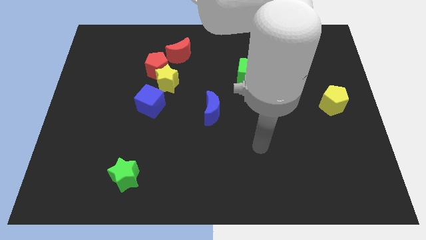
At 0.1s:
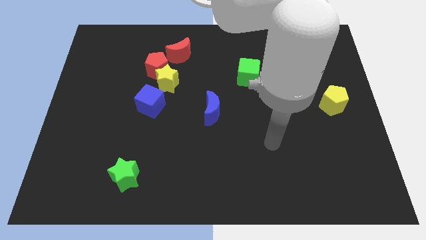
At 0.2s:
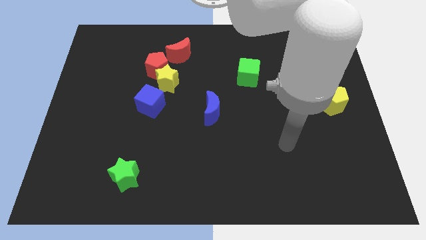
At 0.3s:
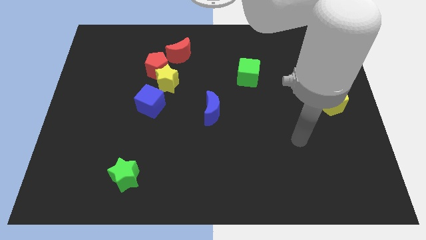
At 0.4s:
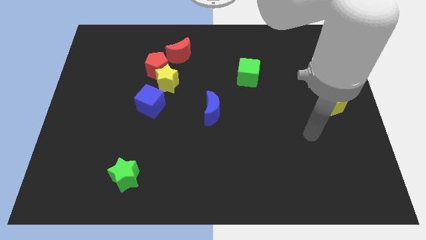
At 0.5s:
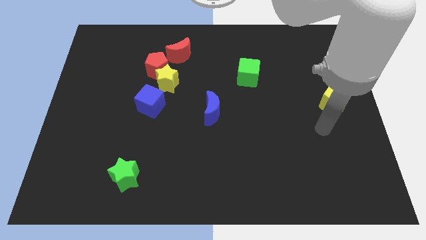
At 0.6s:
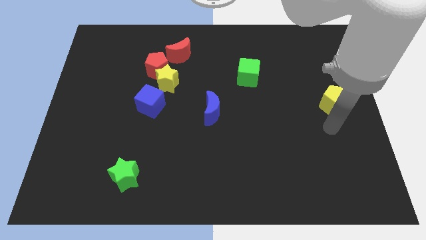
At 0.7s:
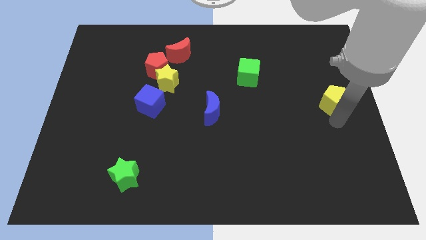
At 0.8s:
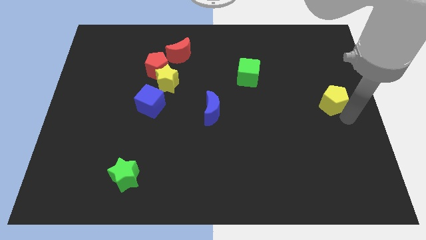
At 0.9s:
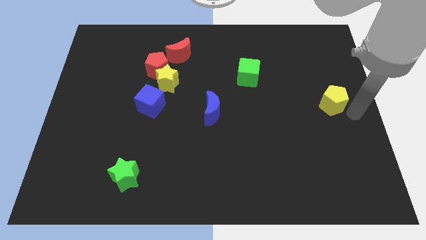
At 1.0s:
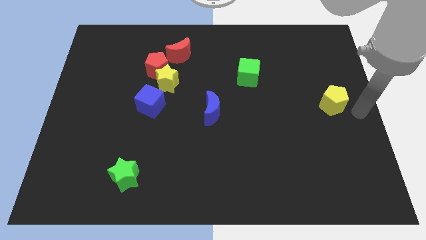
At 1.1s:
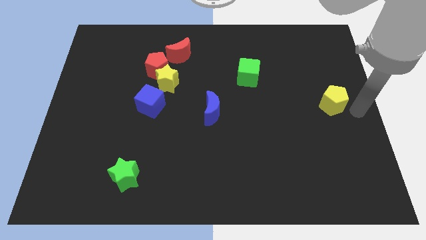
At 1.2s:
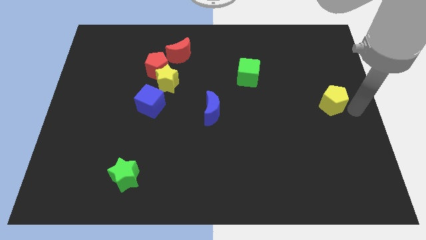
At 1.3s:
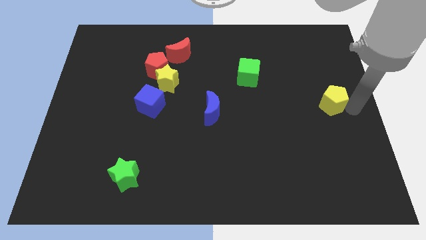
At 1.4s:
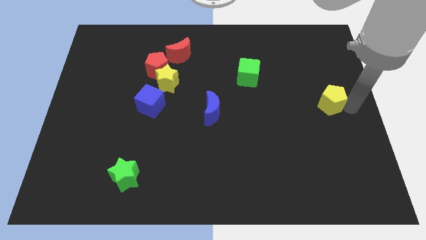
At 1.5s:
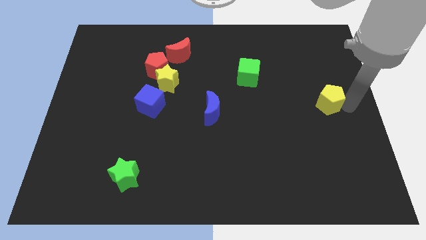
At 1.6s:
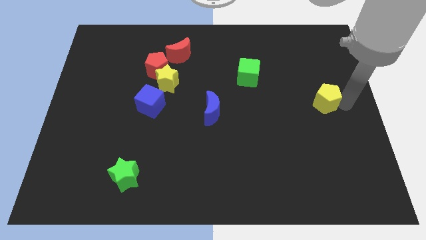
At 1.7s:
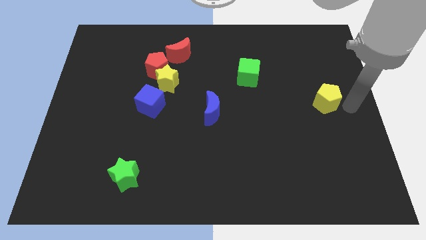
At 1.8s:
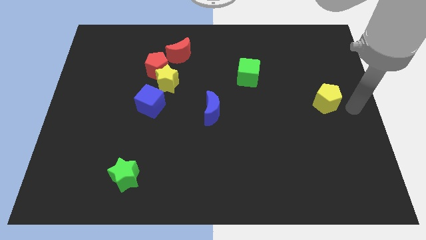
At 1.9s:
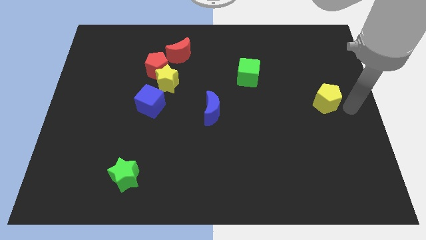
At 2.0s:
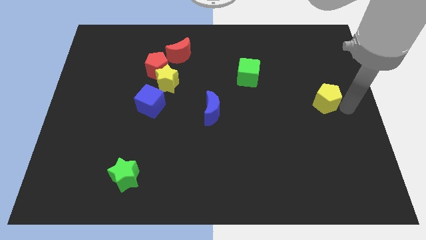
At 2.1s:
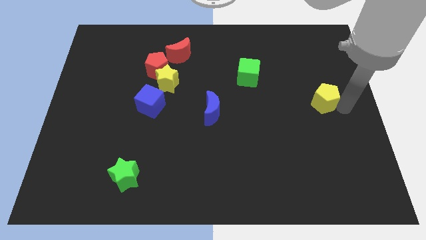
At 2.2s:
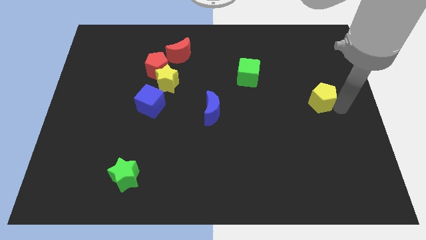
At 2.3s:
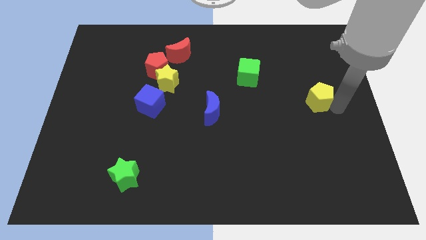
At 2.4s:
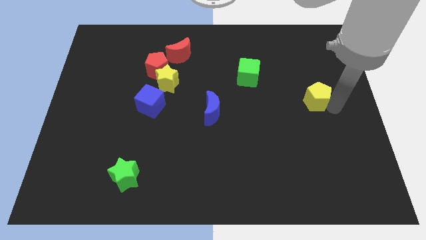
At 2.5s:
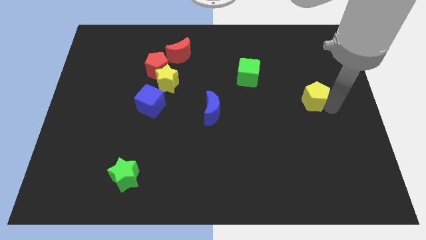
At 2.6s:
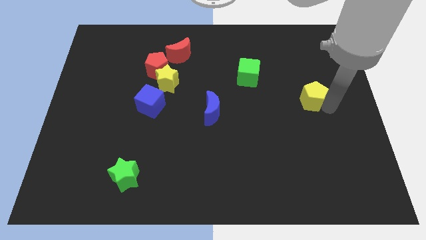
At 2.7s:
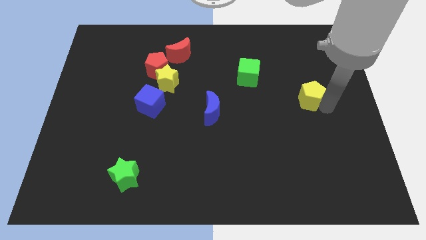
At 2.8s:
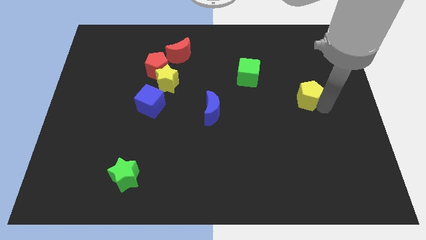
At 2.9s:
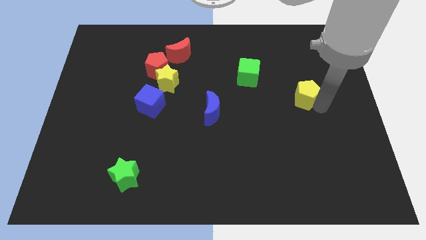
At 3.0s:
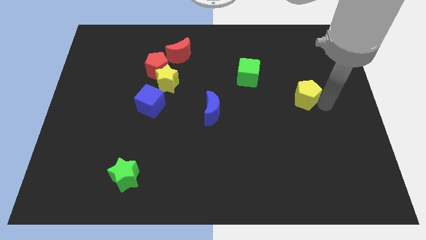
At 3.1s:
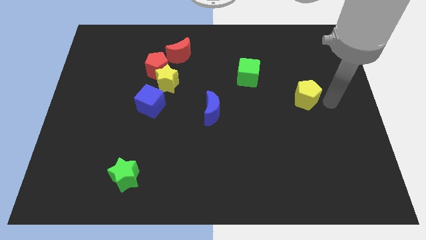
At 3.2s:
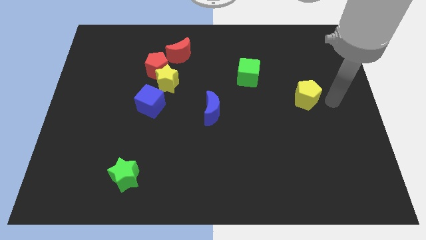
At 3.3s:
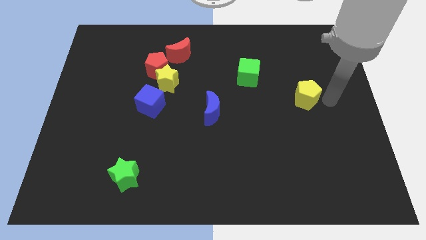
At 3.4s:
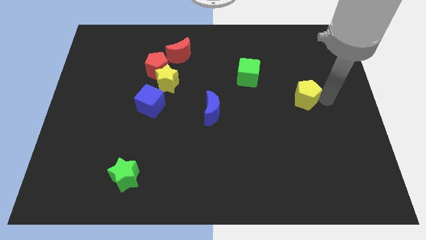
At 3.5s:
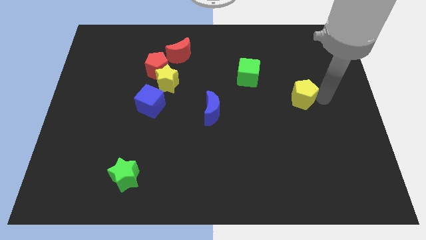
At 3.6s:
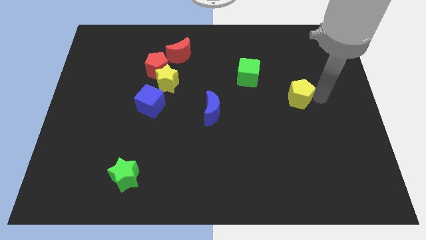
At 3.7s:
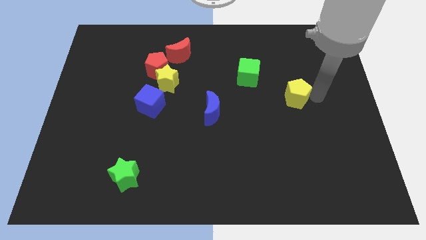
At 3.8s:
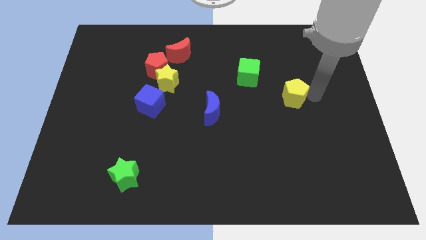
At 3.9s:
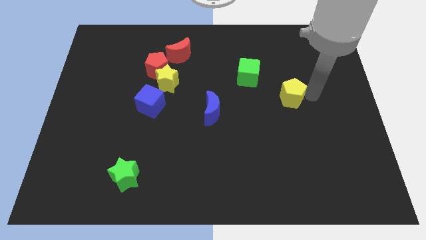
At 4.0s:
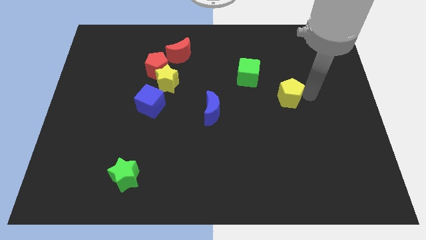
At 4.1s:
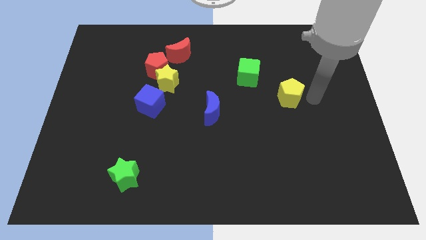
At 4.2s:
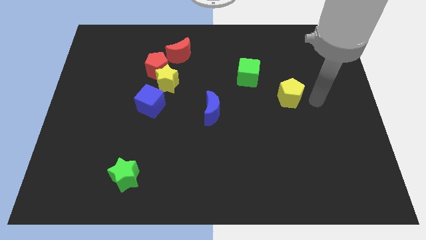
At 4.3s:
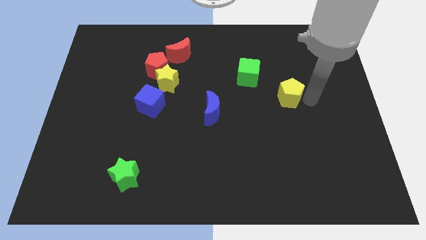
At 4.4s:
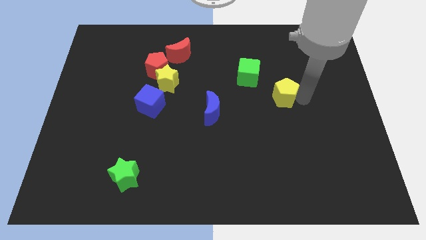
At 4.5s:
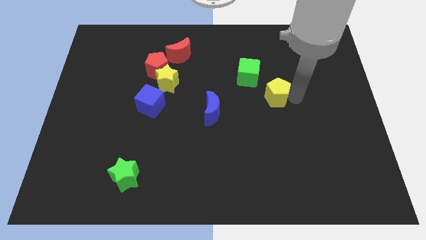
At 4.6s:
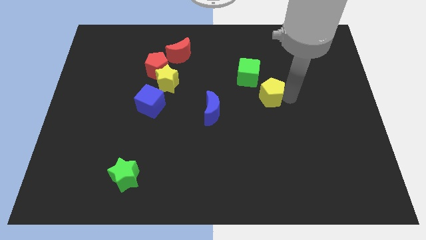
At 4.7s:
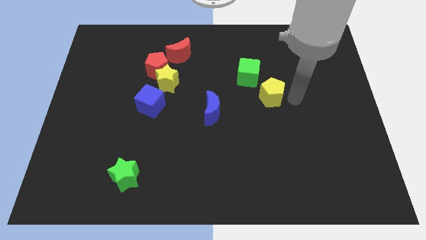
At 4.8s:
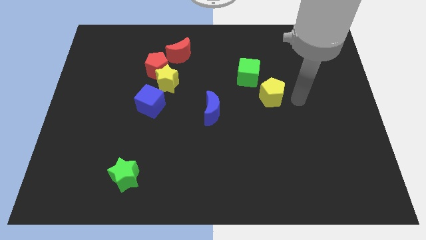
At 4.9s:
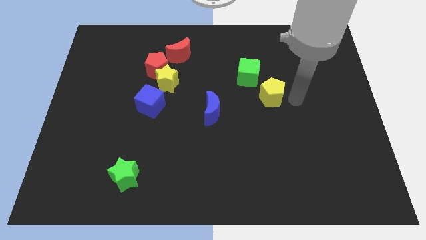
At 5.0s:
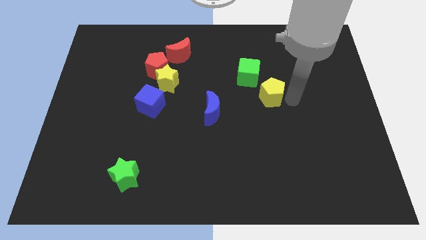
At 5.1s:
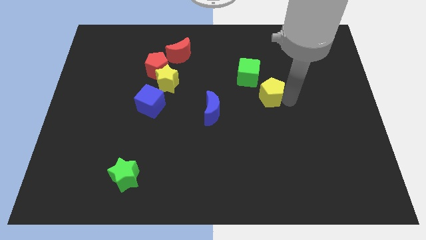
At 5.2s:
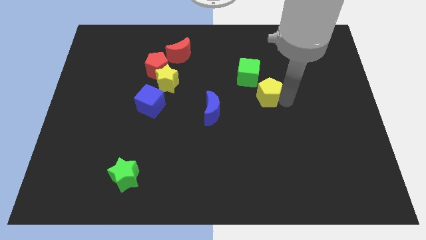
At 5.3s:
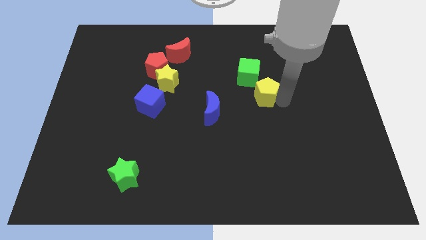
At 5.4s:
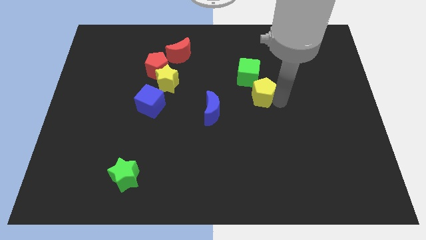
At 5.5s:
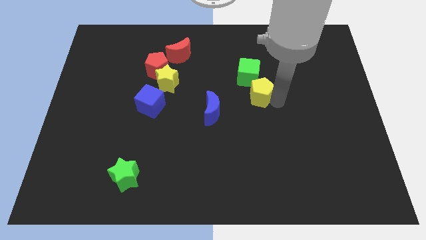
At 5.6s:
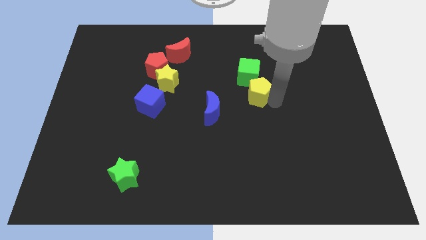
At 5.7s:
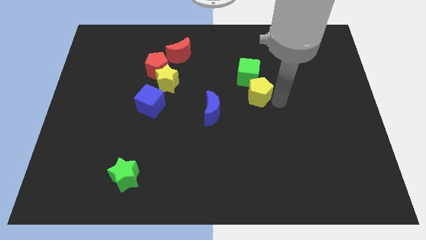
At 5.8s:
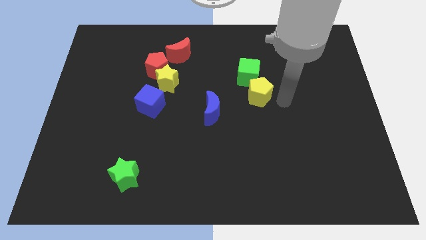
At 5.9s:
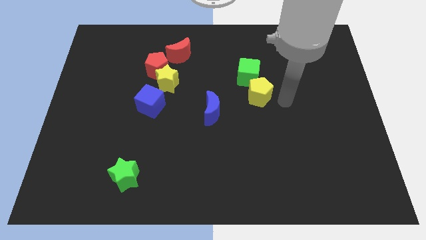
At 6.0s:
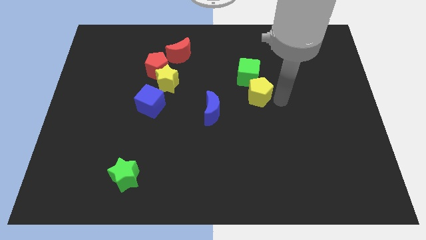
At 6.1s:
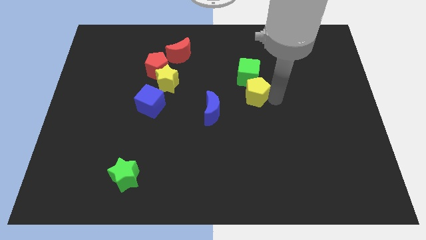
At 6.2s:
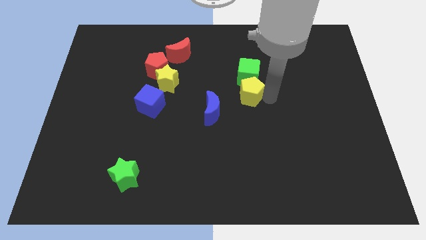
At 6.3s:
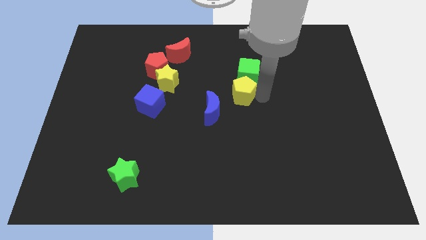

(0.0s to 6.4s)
slide the yellow pentagon to the left

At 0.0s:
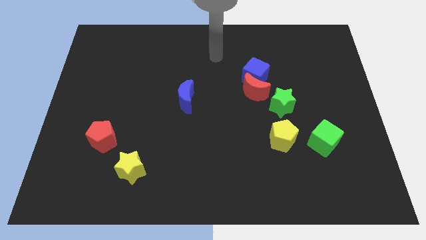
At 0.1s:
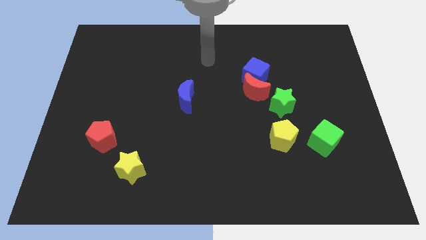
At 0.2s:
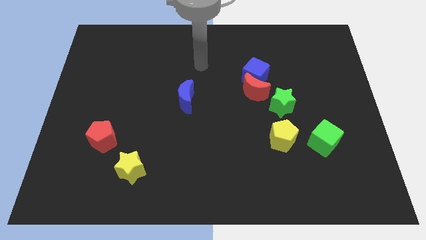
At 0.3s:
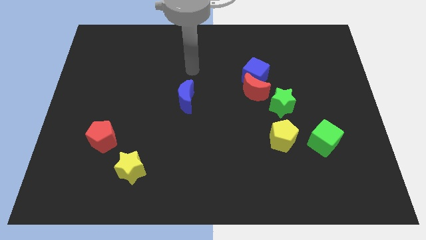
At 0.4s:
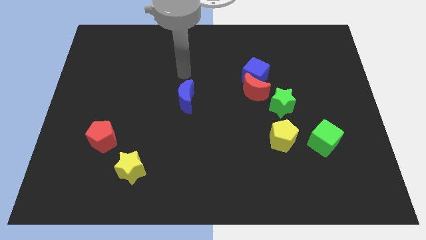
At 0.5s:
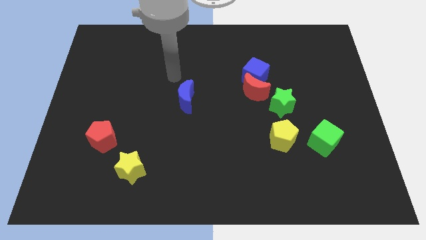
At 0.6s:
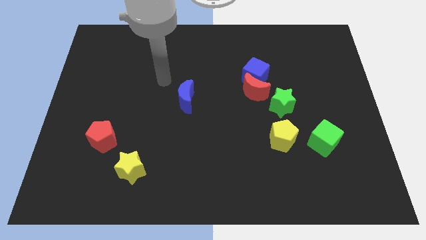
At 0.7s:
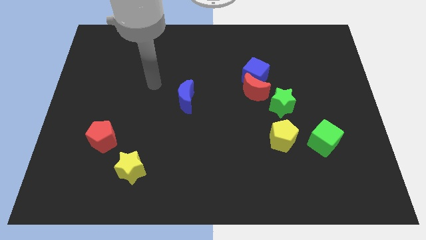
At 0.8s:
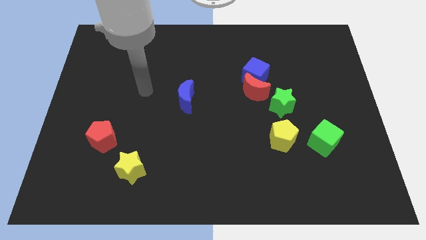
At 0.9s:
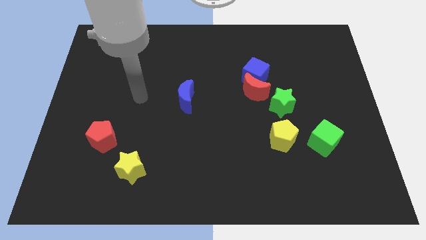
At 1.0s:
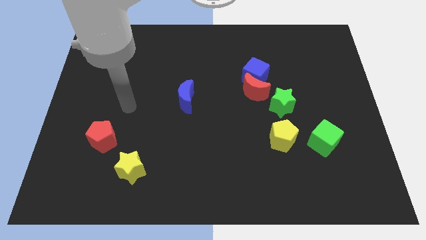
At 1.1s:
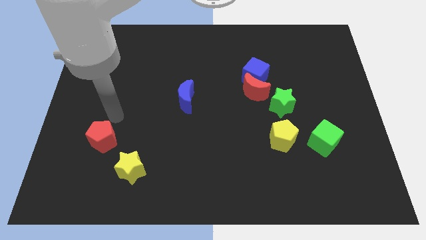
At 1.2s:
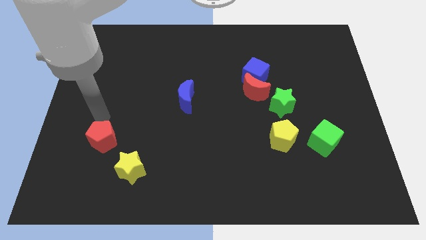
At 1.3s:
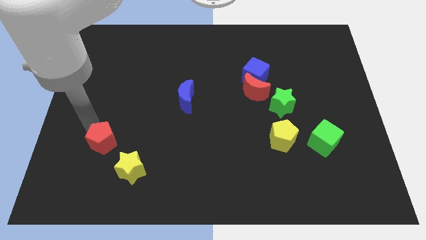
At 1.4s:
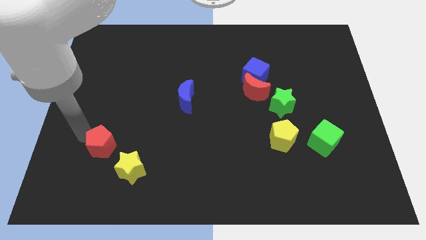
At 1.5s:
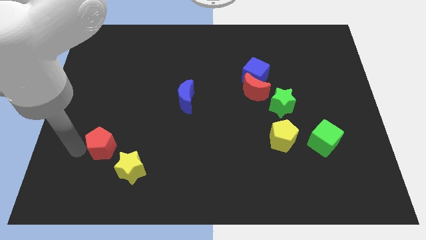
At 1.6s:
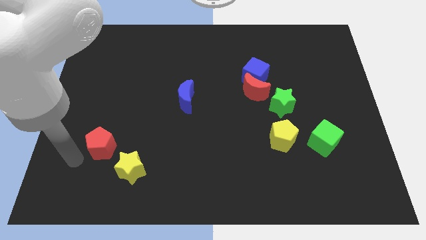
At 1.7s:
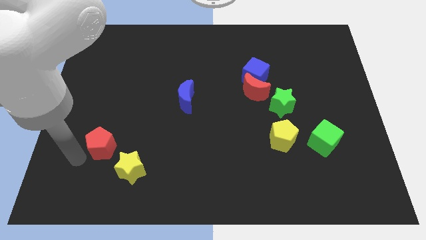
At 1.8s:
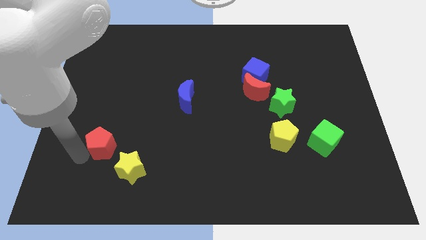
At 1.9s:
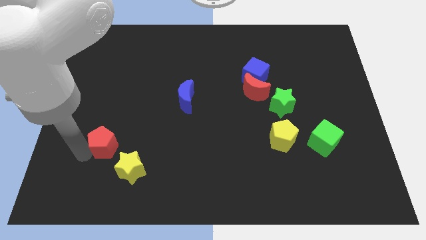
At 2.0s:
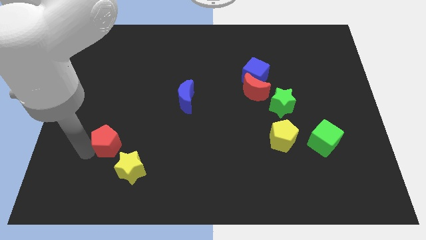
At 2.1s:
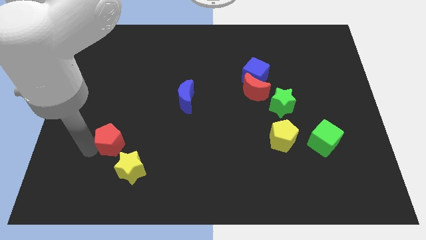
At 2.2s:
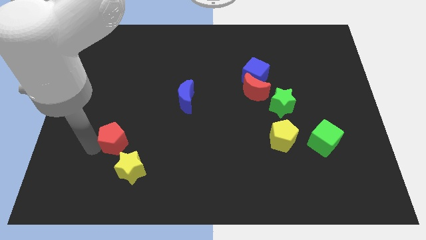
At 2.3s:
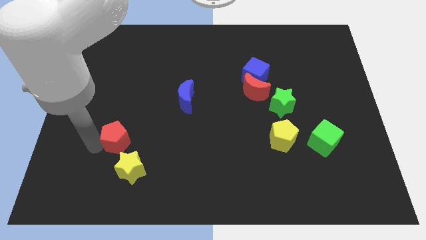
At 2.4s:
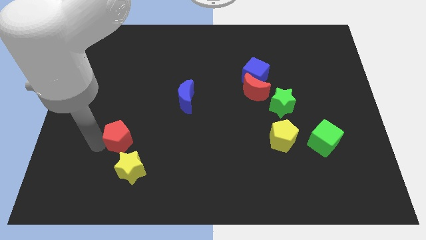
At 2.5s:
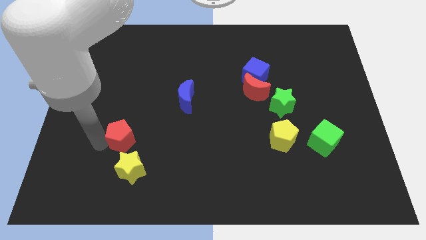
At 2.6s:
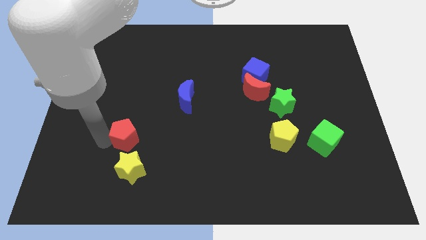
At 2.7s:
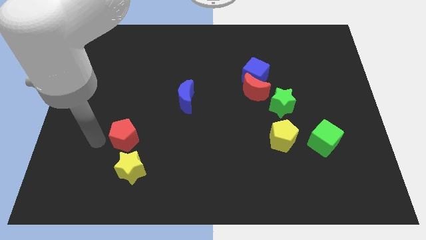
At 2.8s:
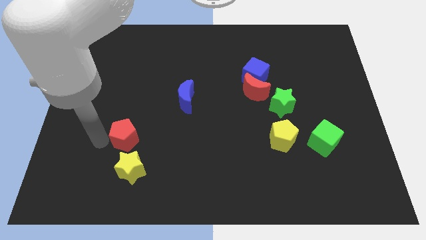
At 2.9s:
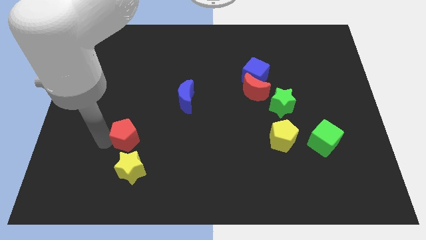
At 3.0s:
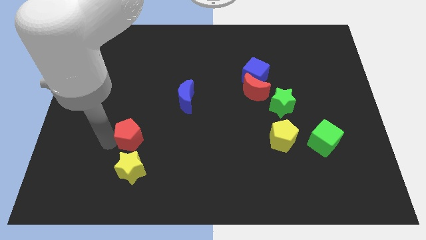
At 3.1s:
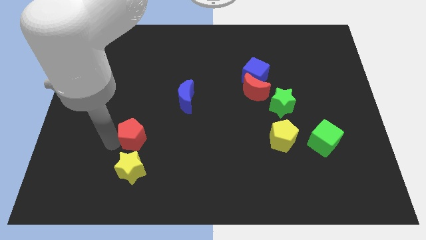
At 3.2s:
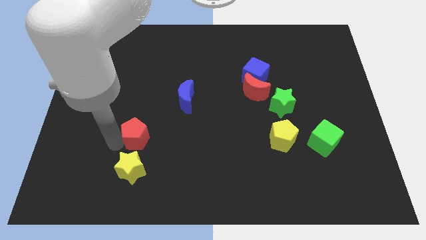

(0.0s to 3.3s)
slide the red pentagon to the right somewhat
